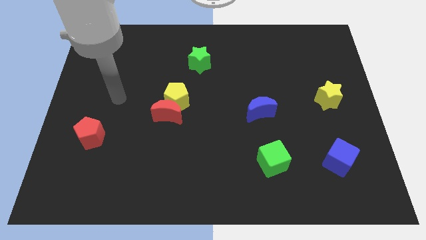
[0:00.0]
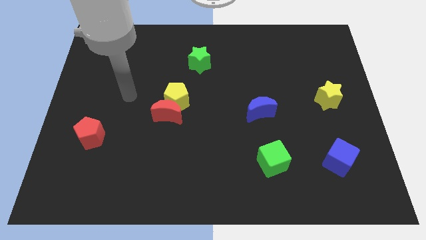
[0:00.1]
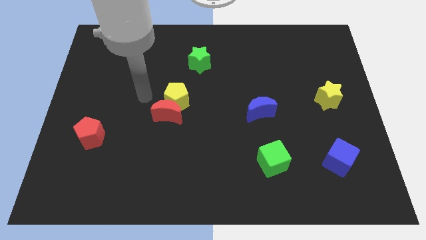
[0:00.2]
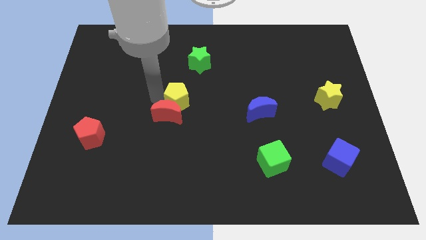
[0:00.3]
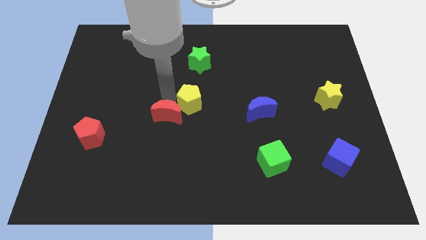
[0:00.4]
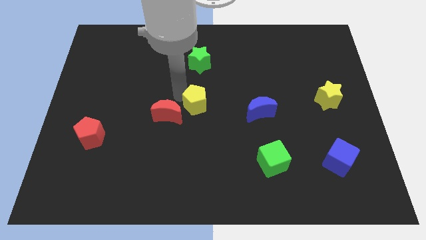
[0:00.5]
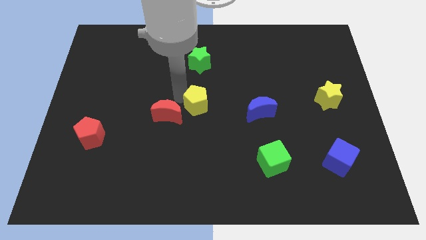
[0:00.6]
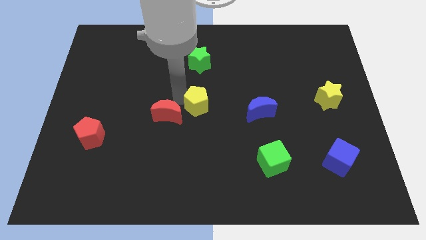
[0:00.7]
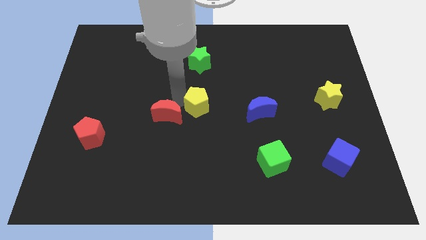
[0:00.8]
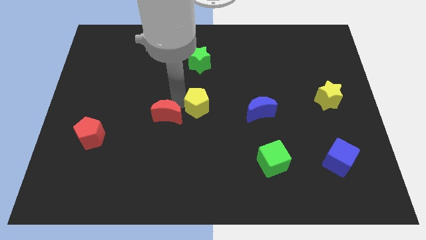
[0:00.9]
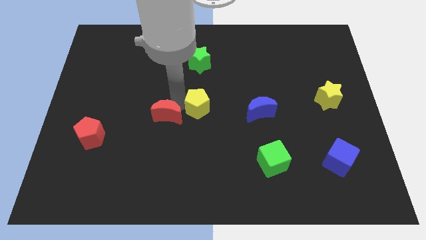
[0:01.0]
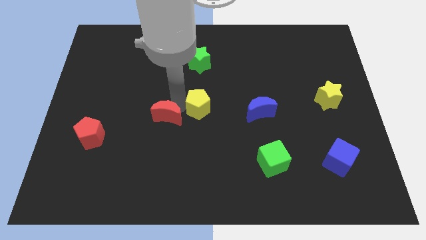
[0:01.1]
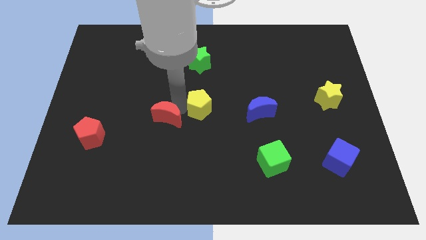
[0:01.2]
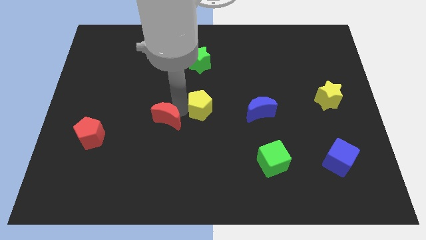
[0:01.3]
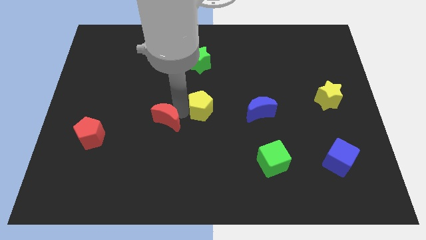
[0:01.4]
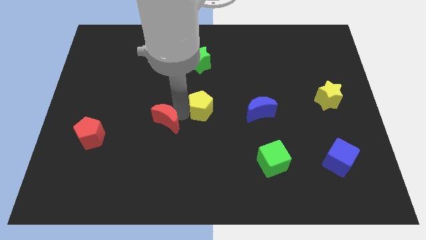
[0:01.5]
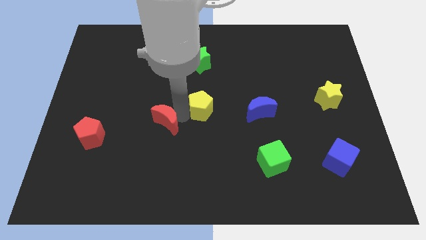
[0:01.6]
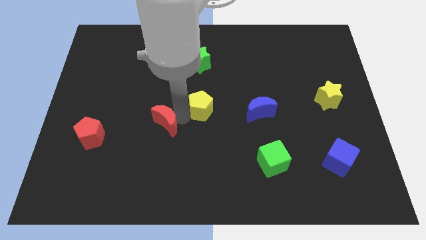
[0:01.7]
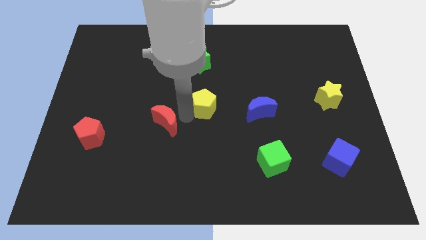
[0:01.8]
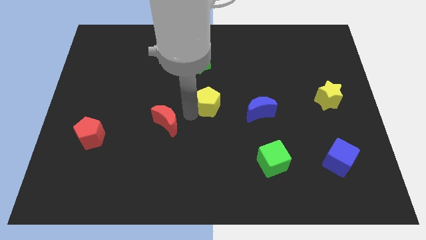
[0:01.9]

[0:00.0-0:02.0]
pull the red moon apart from the yellow pentagon

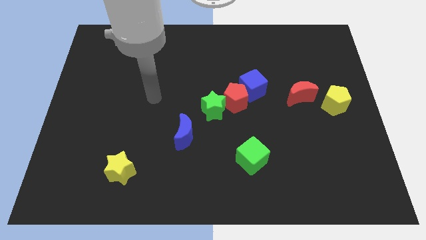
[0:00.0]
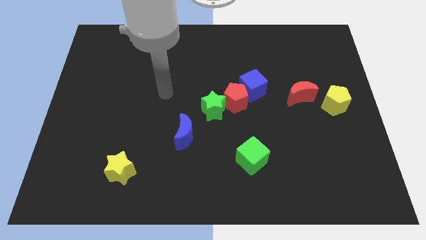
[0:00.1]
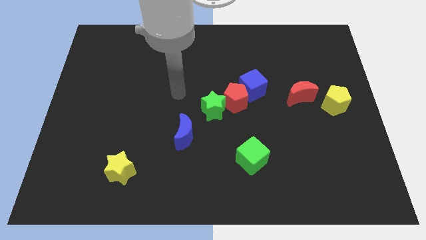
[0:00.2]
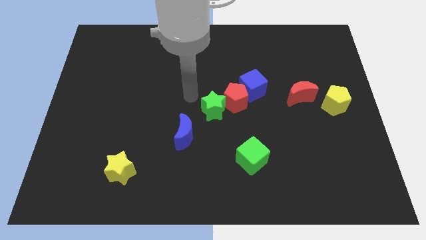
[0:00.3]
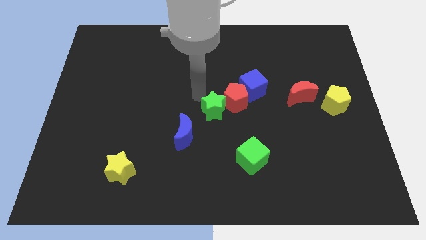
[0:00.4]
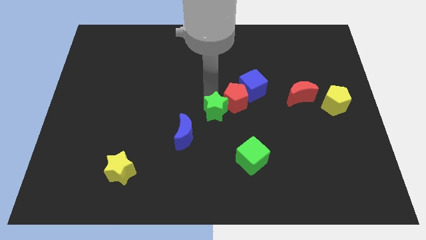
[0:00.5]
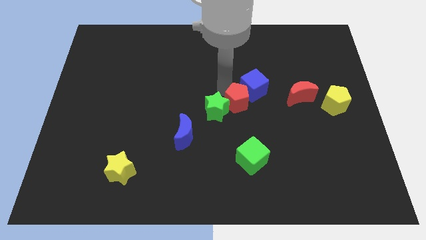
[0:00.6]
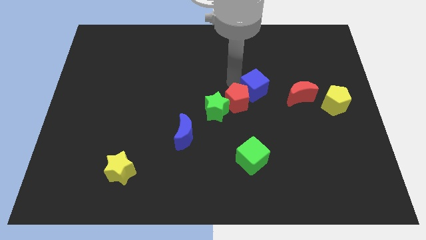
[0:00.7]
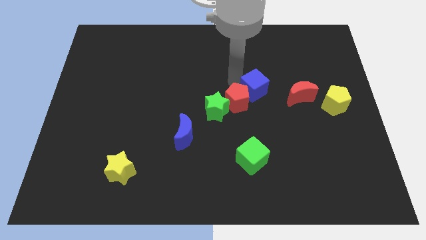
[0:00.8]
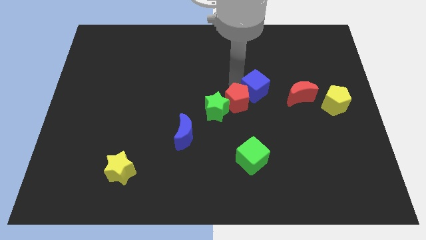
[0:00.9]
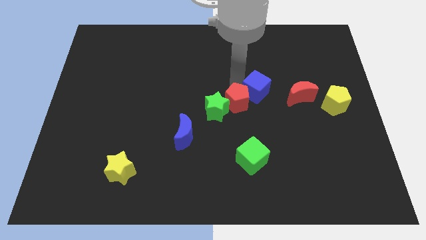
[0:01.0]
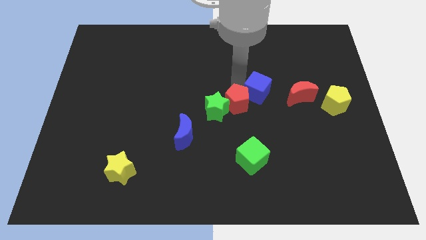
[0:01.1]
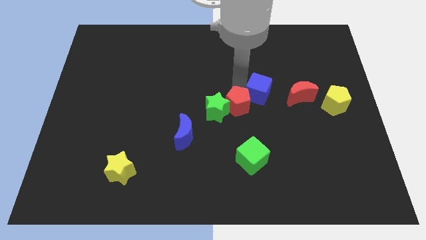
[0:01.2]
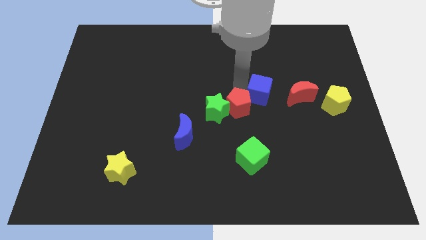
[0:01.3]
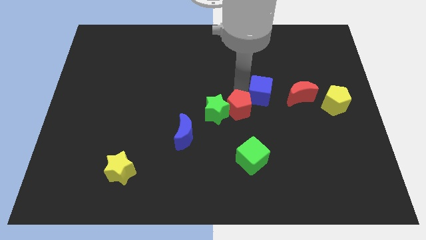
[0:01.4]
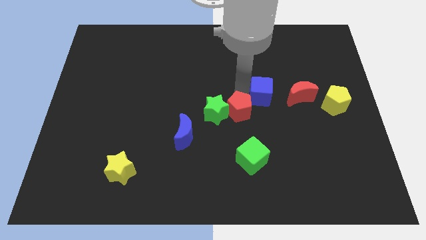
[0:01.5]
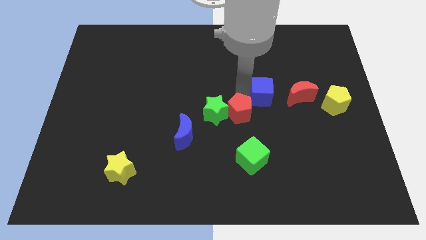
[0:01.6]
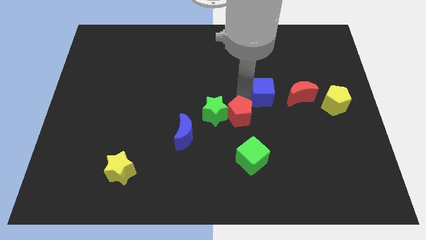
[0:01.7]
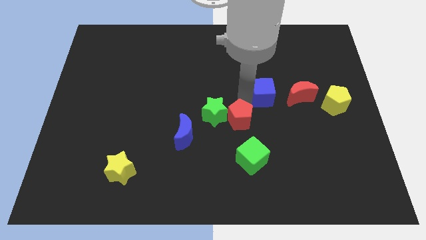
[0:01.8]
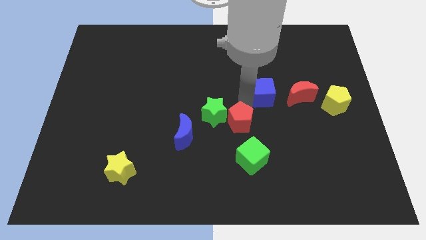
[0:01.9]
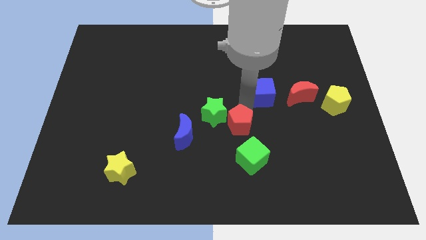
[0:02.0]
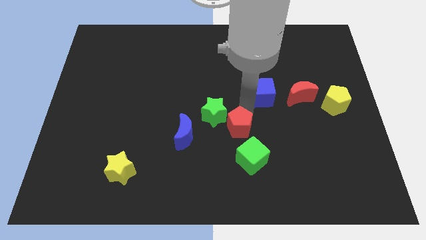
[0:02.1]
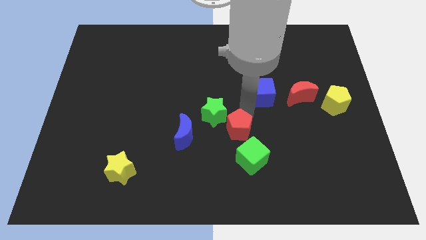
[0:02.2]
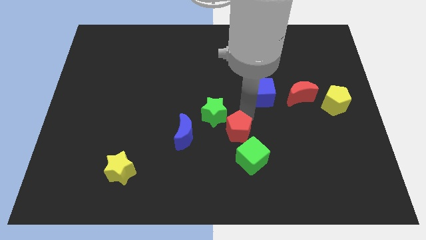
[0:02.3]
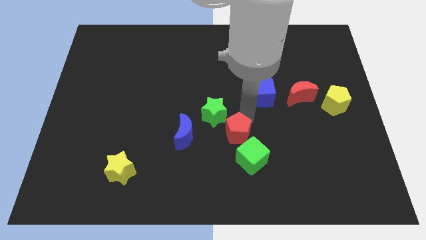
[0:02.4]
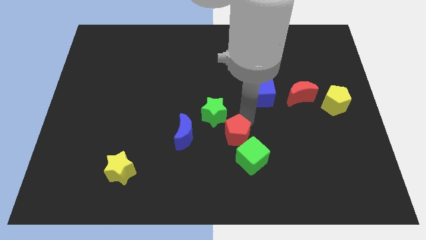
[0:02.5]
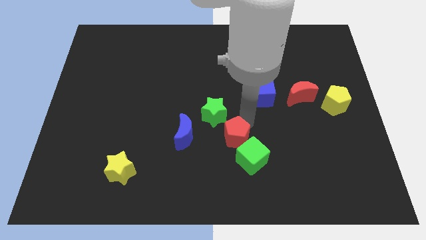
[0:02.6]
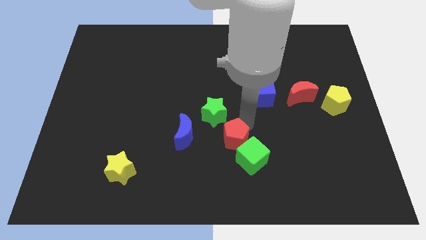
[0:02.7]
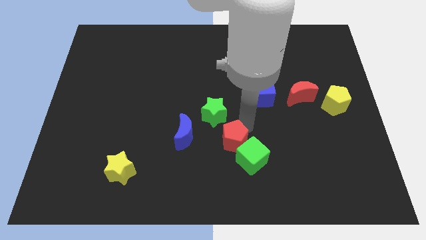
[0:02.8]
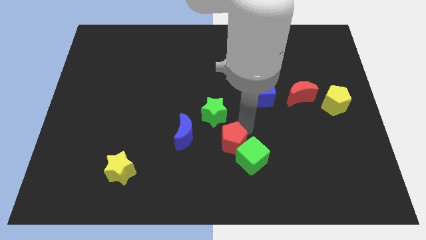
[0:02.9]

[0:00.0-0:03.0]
move the red pentagon away from the green star and blue cube

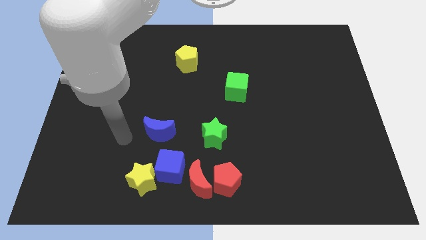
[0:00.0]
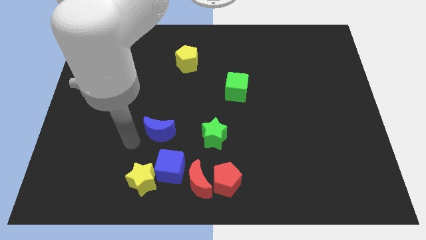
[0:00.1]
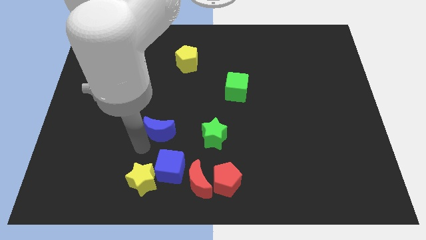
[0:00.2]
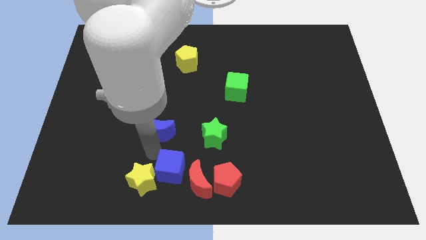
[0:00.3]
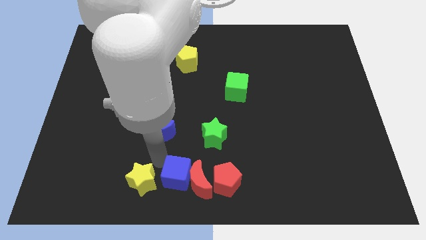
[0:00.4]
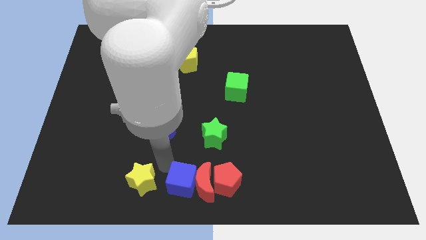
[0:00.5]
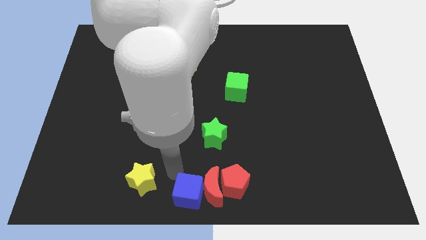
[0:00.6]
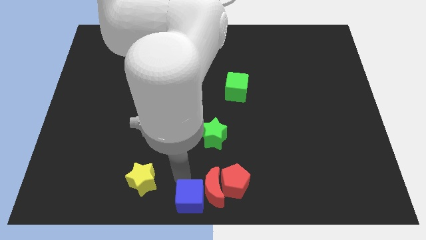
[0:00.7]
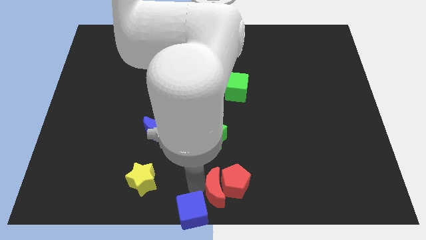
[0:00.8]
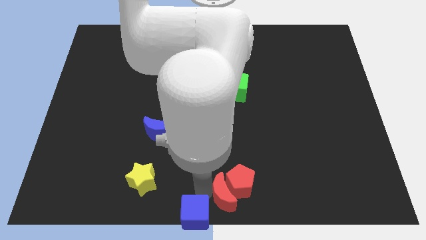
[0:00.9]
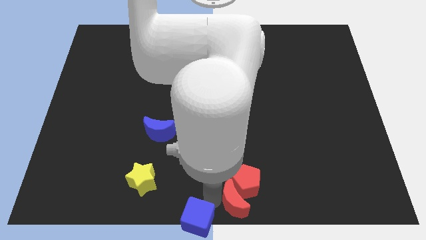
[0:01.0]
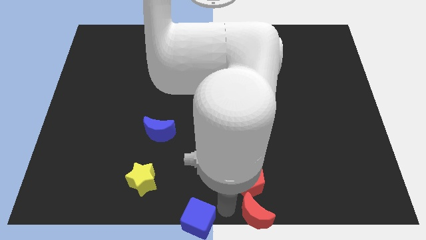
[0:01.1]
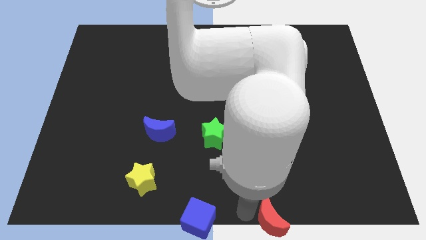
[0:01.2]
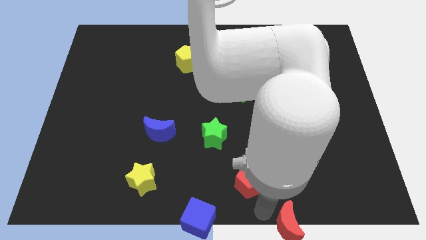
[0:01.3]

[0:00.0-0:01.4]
move the red pentagon away from the red moon

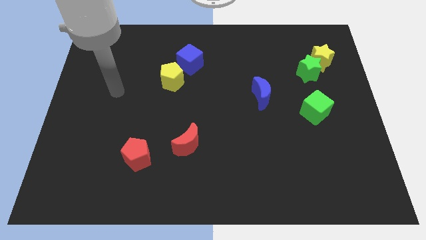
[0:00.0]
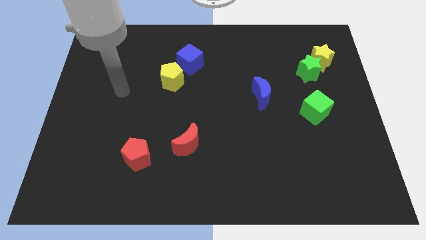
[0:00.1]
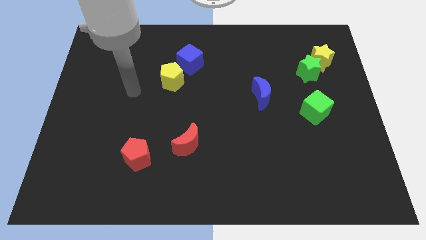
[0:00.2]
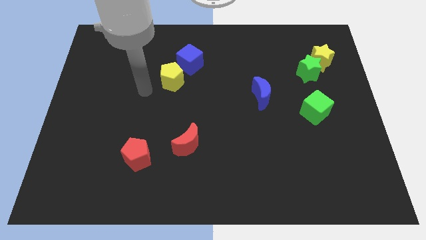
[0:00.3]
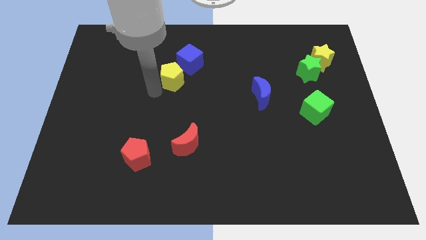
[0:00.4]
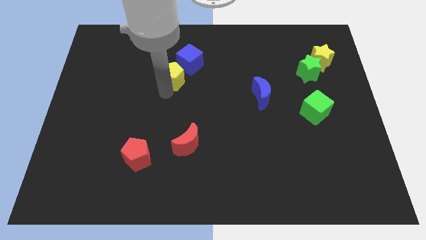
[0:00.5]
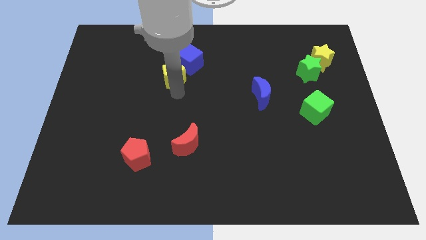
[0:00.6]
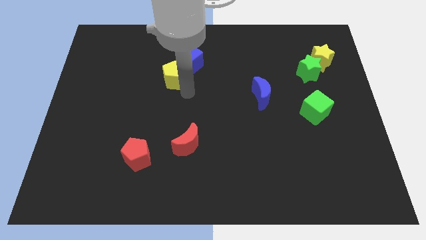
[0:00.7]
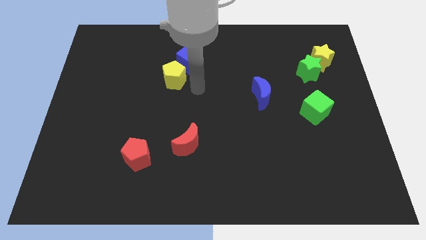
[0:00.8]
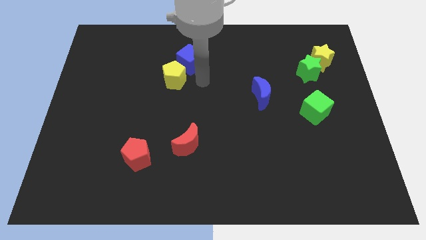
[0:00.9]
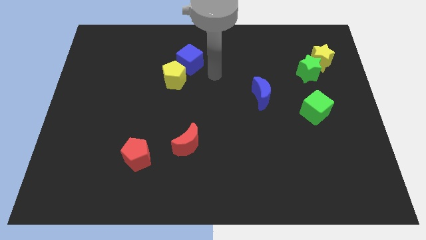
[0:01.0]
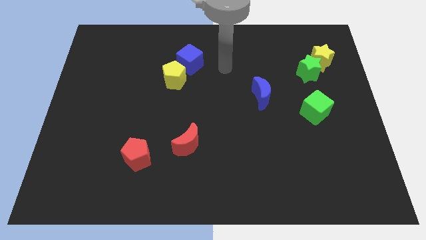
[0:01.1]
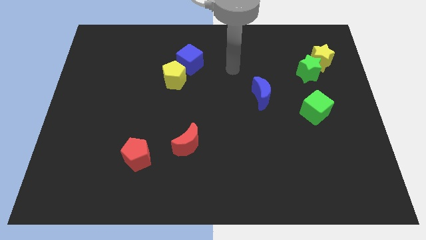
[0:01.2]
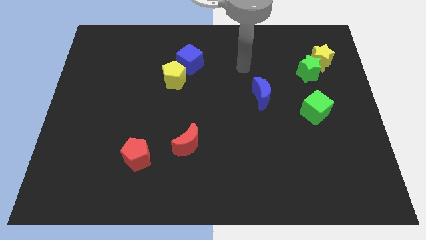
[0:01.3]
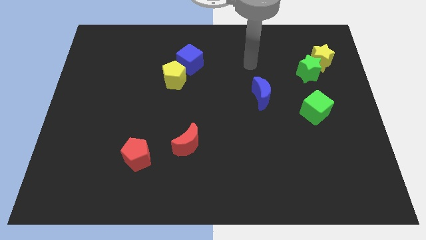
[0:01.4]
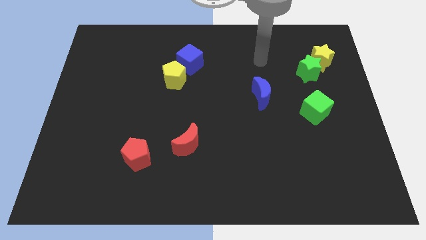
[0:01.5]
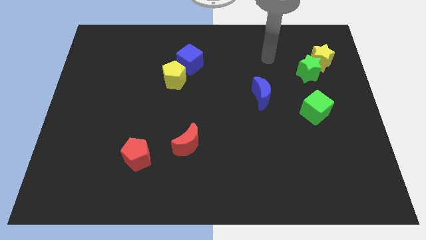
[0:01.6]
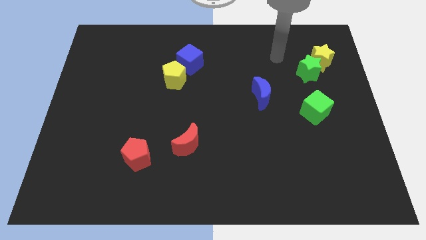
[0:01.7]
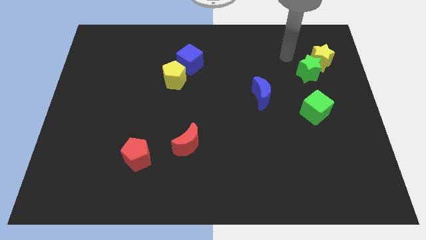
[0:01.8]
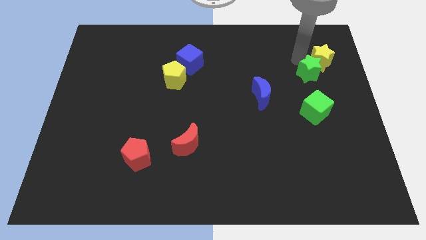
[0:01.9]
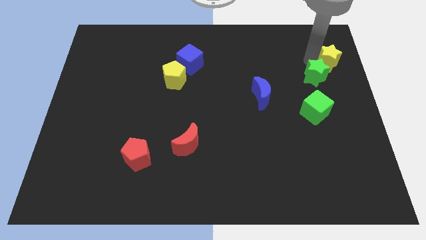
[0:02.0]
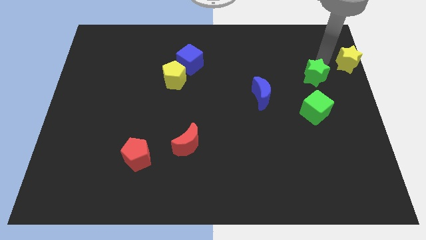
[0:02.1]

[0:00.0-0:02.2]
move the green star away from the yellow star

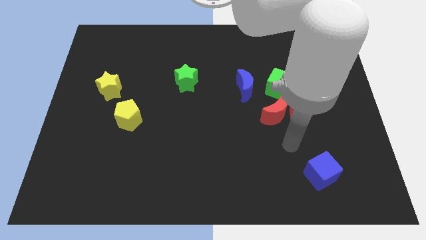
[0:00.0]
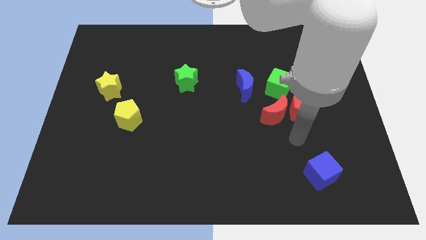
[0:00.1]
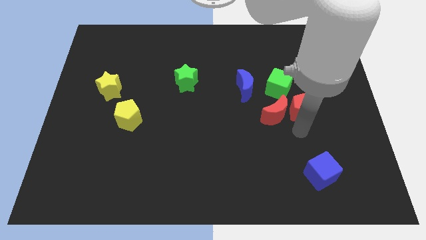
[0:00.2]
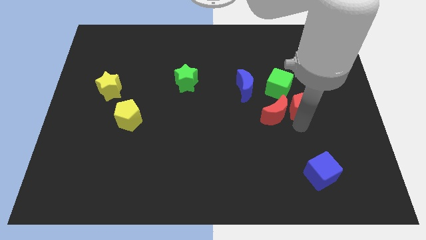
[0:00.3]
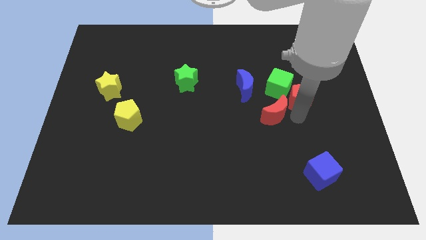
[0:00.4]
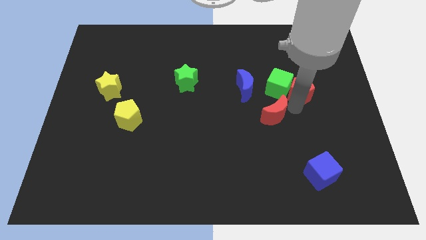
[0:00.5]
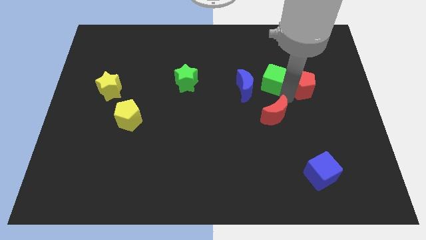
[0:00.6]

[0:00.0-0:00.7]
pull the red moon apart from the red pentagon and green cube
